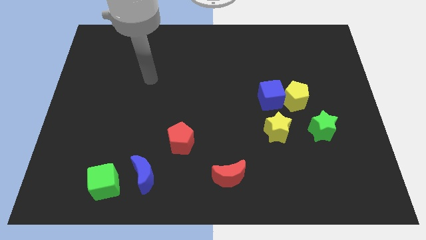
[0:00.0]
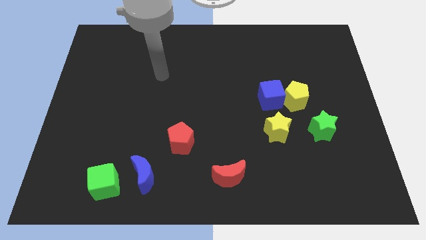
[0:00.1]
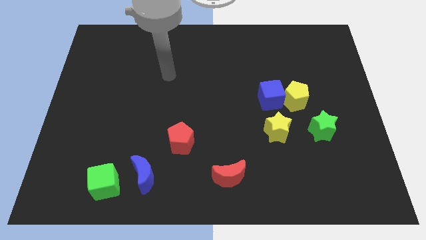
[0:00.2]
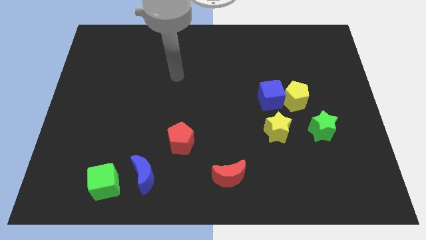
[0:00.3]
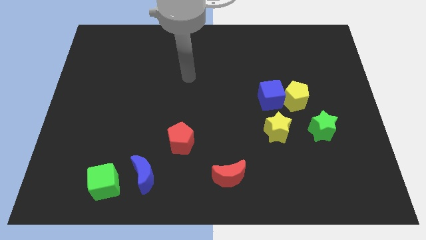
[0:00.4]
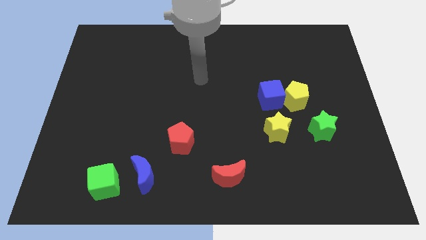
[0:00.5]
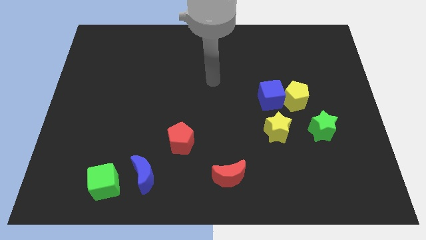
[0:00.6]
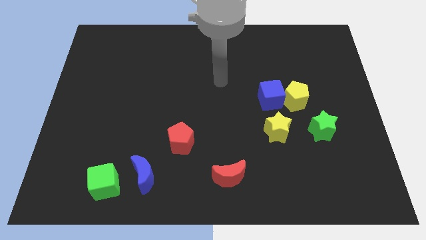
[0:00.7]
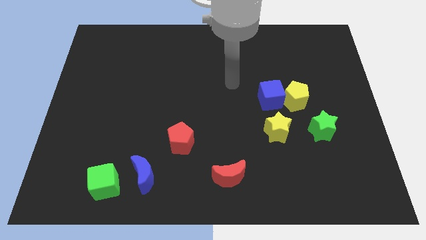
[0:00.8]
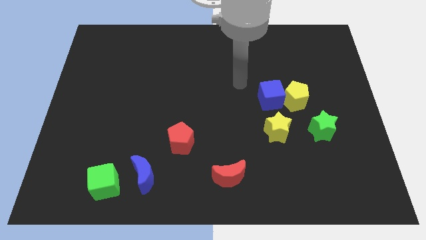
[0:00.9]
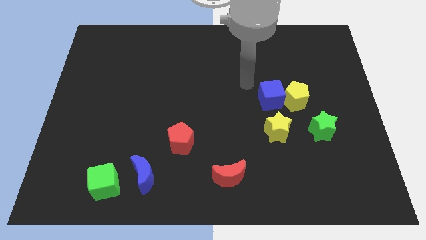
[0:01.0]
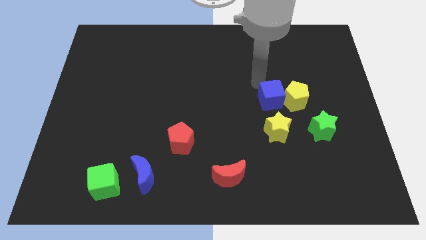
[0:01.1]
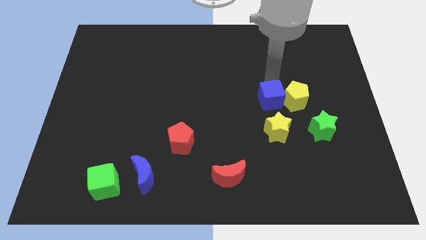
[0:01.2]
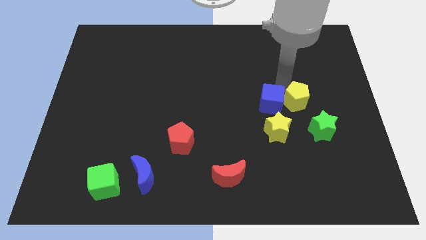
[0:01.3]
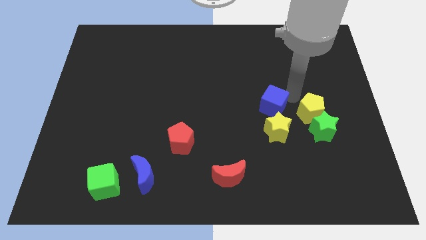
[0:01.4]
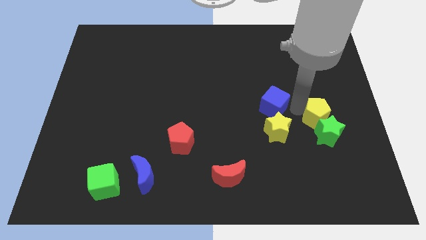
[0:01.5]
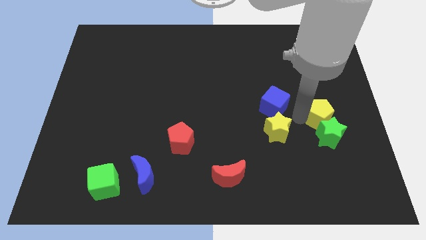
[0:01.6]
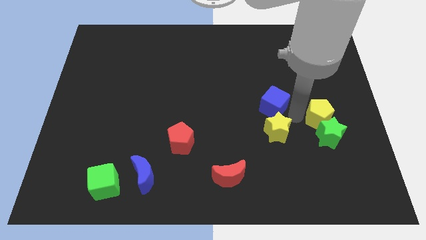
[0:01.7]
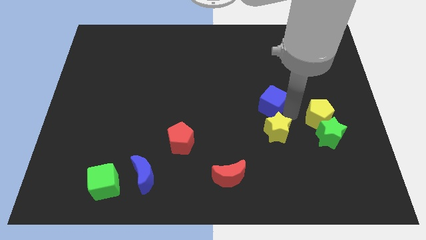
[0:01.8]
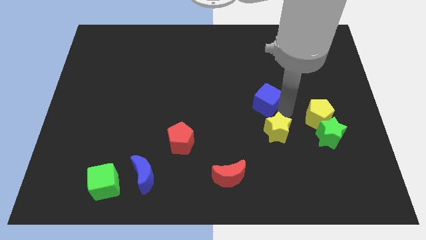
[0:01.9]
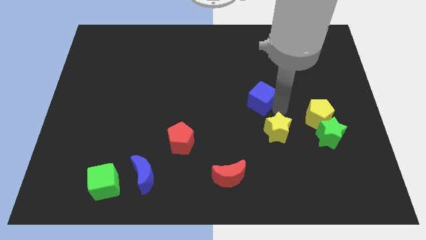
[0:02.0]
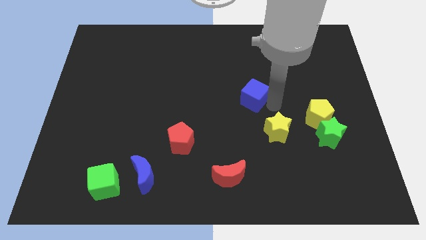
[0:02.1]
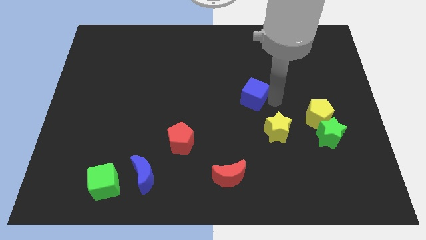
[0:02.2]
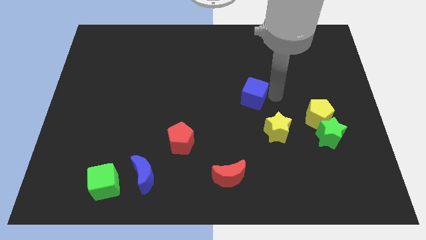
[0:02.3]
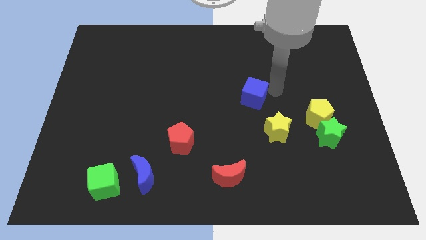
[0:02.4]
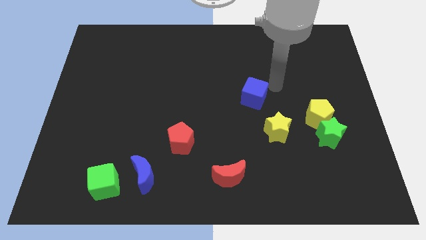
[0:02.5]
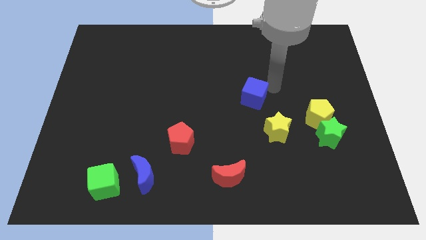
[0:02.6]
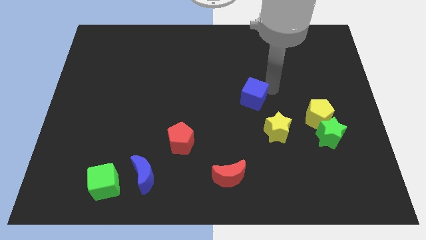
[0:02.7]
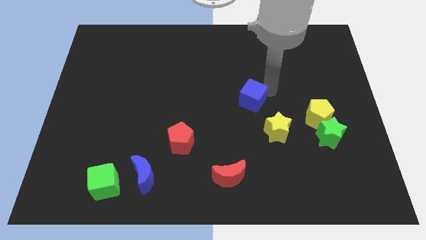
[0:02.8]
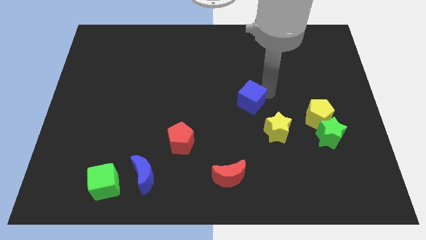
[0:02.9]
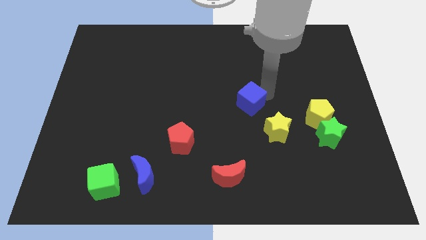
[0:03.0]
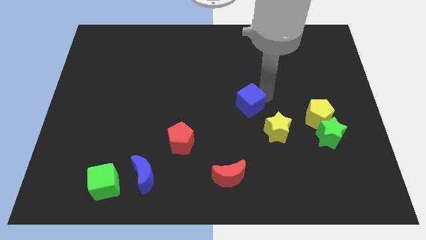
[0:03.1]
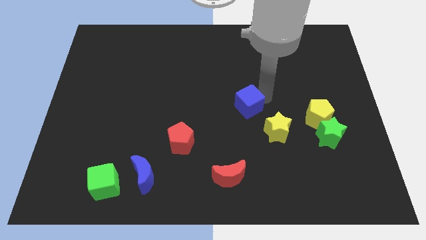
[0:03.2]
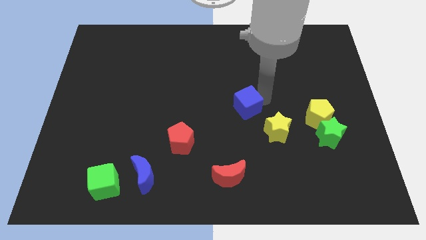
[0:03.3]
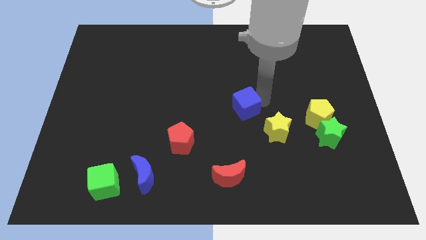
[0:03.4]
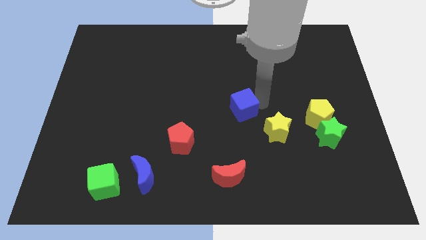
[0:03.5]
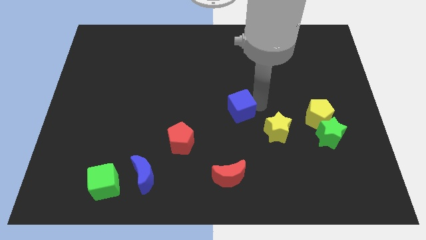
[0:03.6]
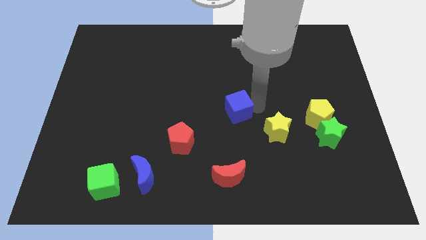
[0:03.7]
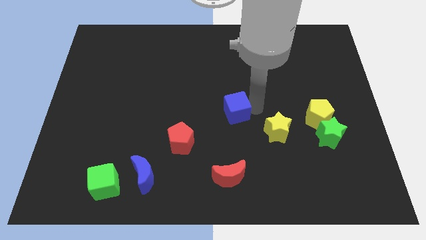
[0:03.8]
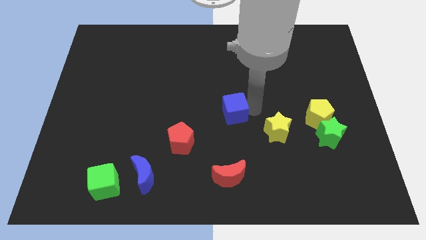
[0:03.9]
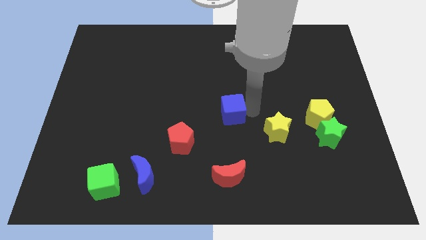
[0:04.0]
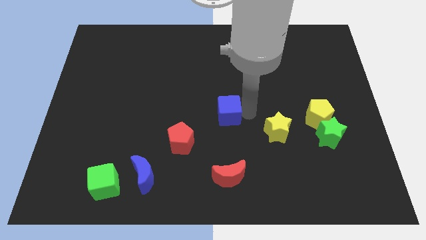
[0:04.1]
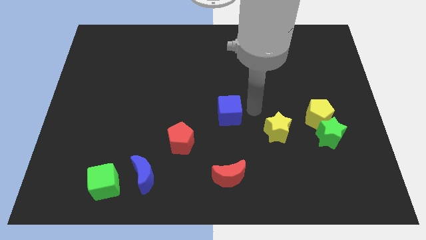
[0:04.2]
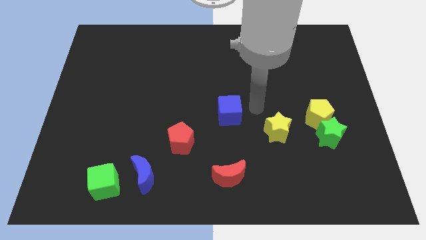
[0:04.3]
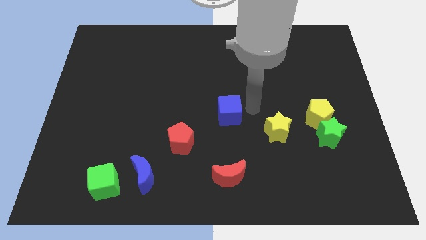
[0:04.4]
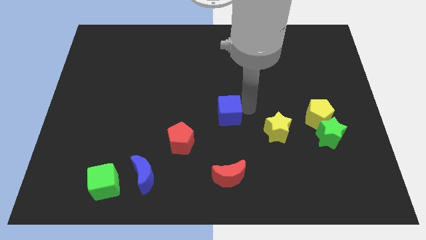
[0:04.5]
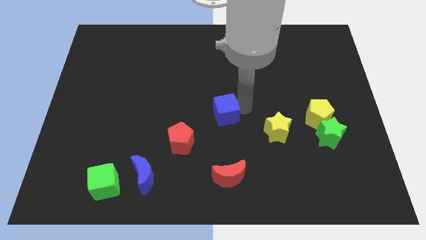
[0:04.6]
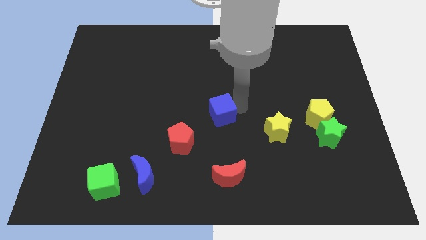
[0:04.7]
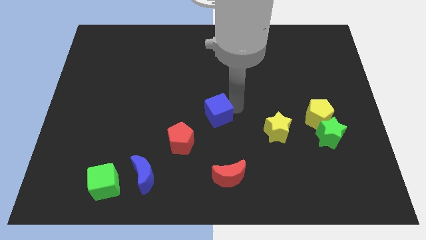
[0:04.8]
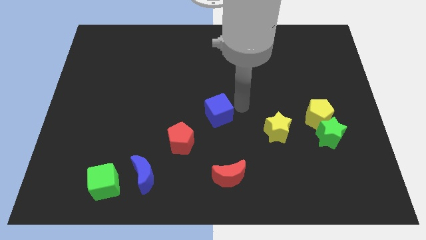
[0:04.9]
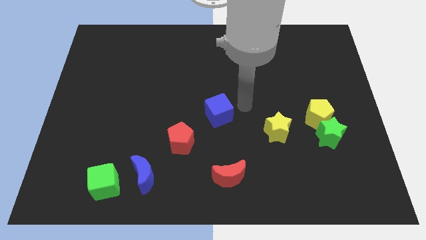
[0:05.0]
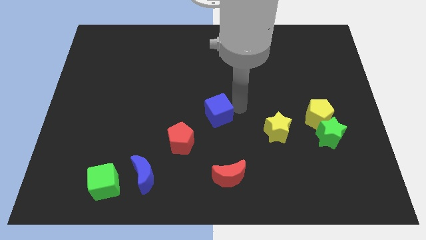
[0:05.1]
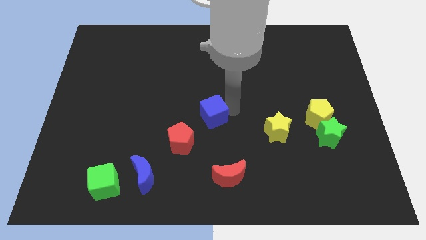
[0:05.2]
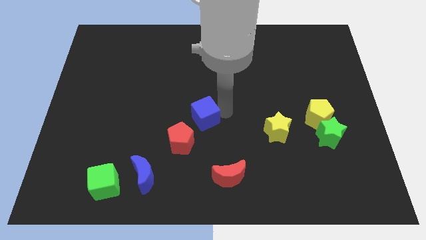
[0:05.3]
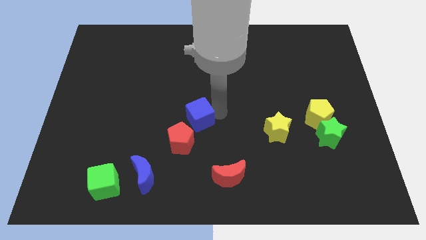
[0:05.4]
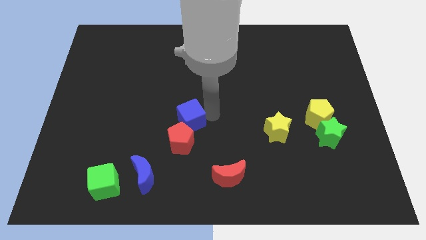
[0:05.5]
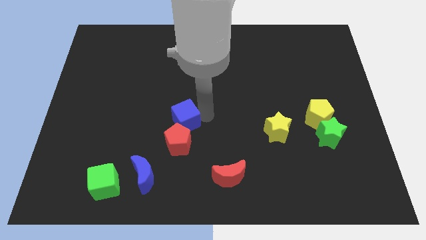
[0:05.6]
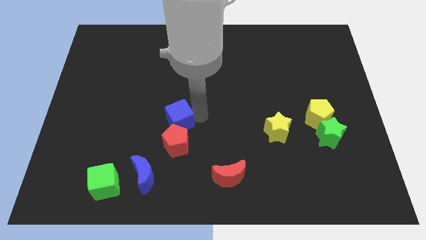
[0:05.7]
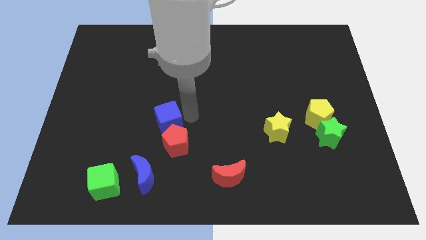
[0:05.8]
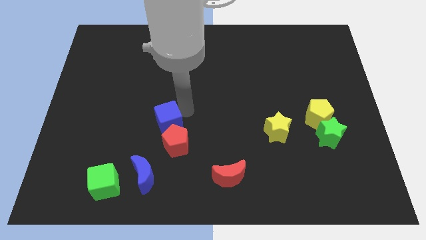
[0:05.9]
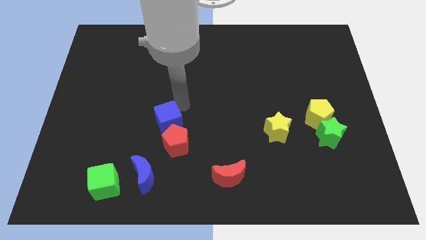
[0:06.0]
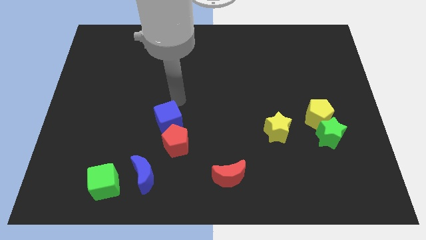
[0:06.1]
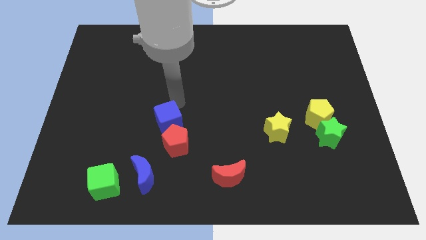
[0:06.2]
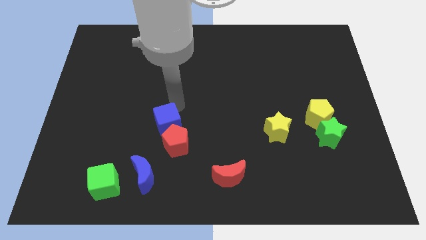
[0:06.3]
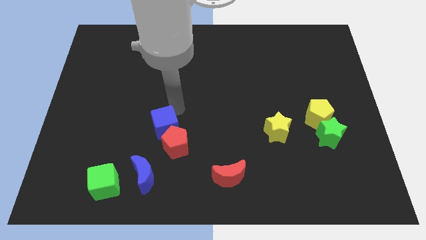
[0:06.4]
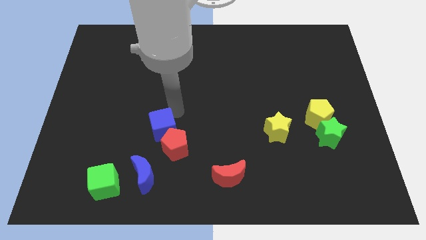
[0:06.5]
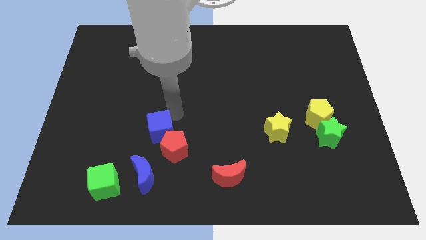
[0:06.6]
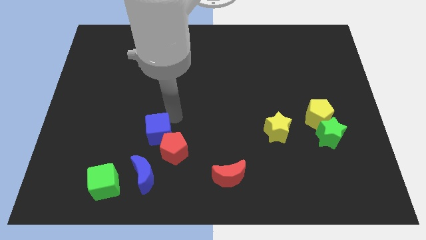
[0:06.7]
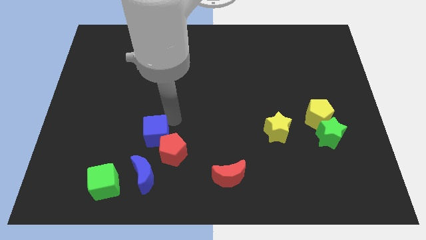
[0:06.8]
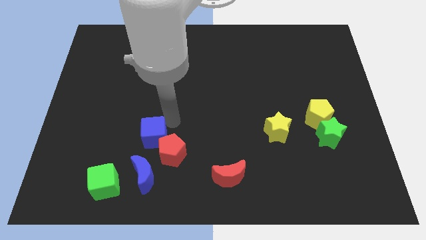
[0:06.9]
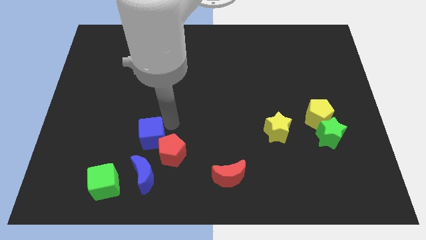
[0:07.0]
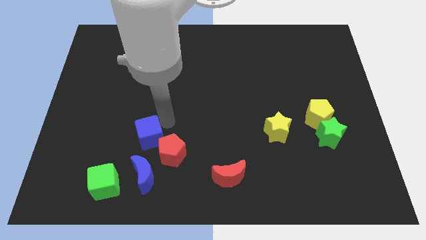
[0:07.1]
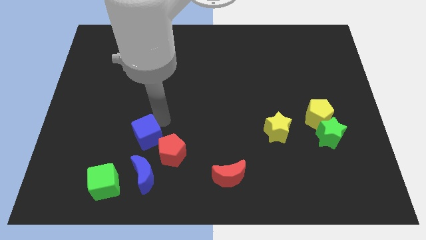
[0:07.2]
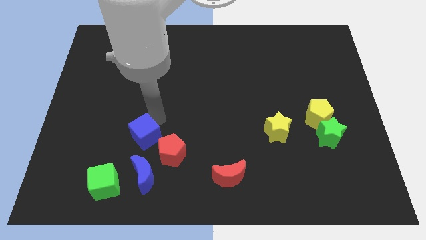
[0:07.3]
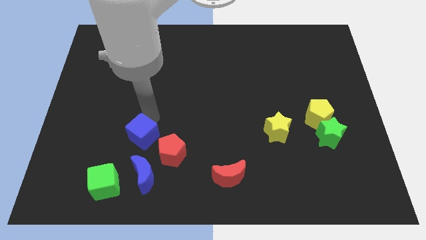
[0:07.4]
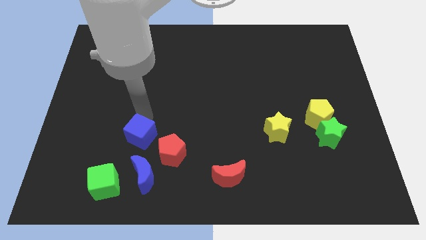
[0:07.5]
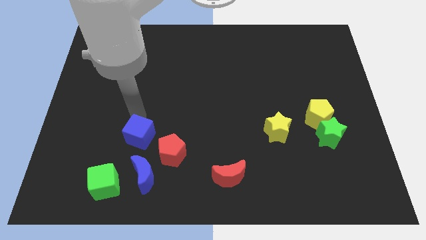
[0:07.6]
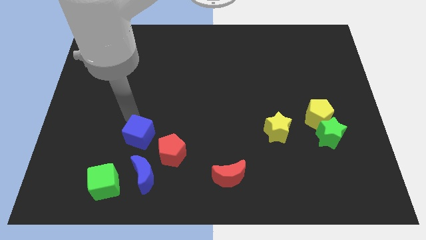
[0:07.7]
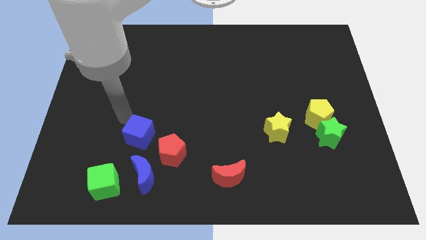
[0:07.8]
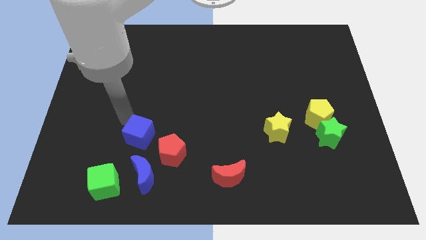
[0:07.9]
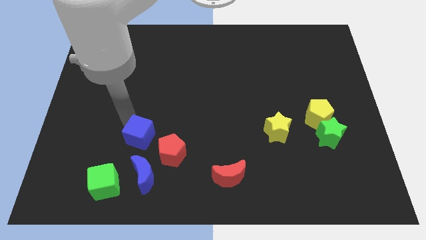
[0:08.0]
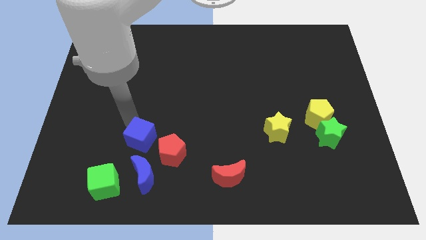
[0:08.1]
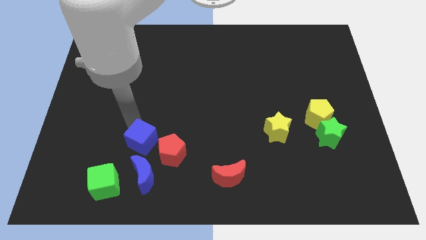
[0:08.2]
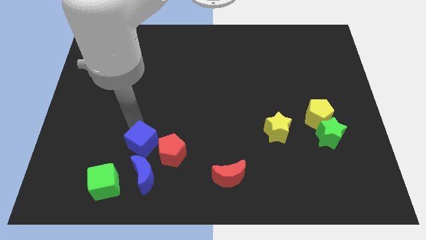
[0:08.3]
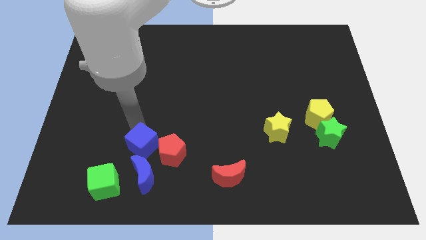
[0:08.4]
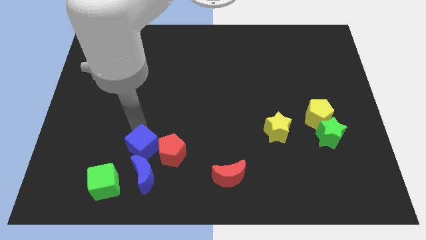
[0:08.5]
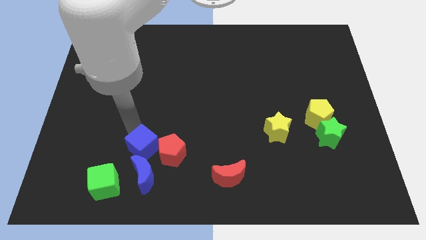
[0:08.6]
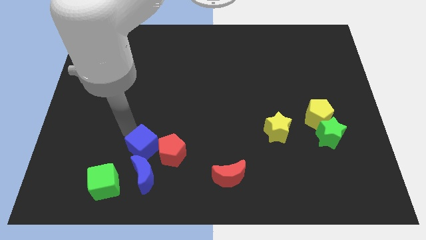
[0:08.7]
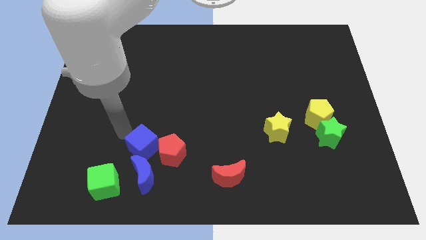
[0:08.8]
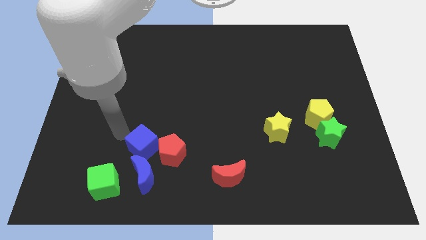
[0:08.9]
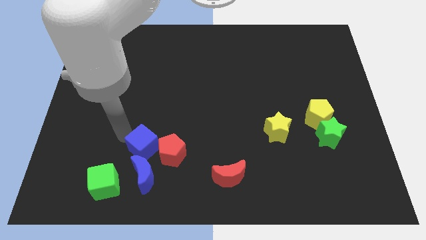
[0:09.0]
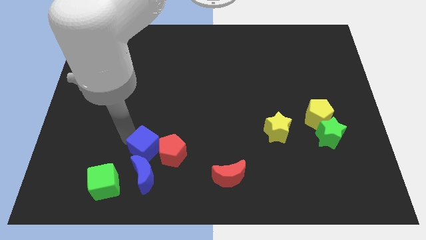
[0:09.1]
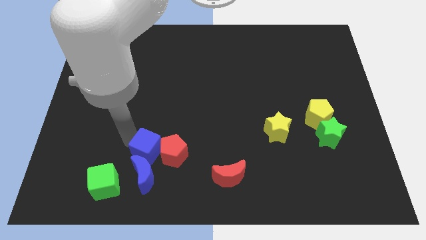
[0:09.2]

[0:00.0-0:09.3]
push the blue cube to the blue moon
